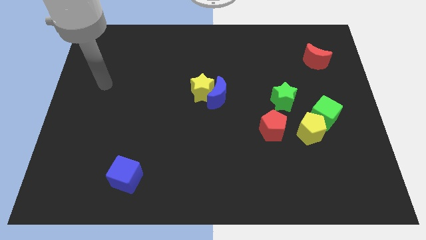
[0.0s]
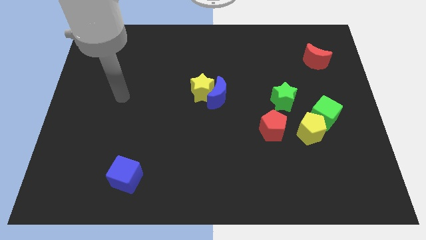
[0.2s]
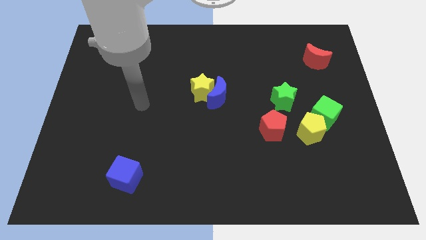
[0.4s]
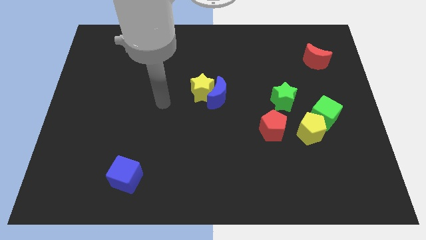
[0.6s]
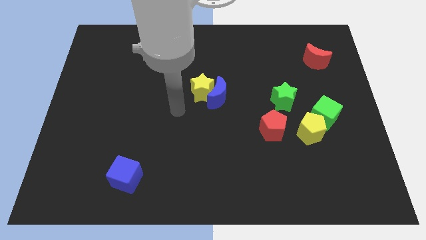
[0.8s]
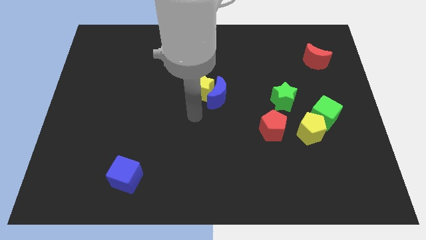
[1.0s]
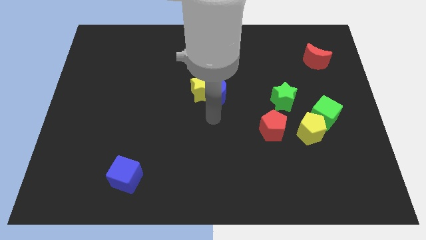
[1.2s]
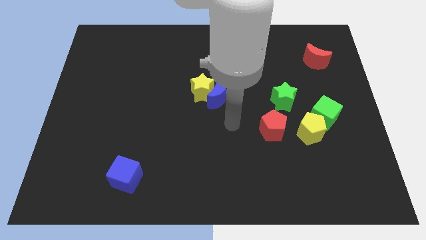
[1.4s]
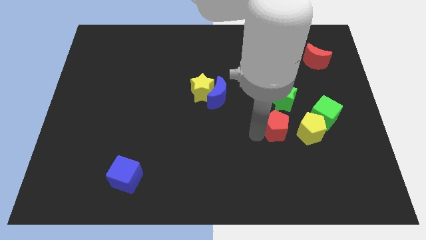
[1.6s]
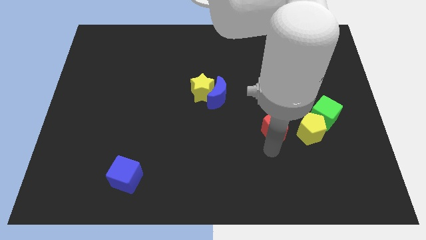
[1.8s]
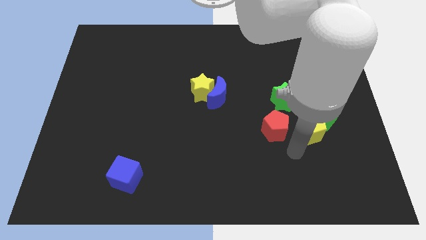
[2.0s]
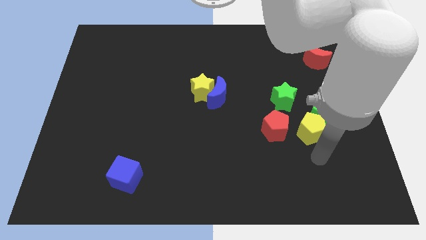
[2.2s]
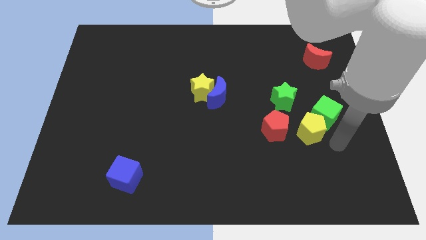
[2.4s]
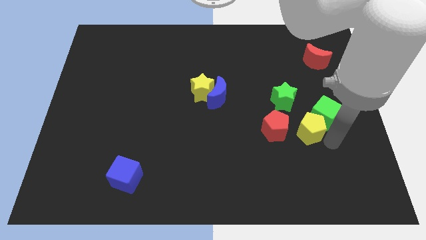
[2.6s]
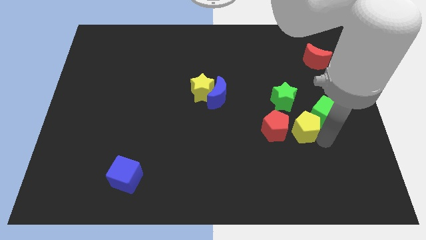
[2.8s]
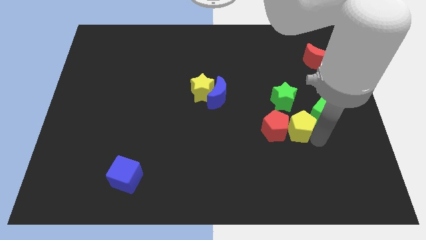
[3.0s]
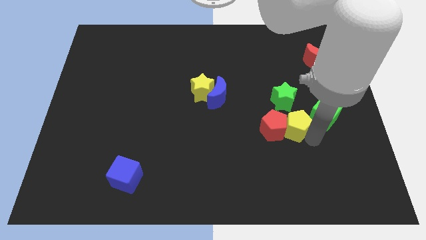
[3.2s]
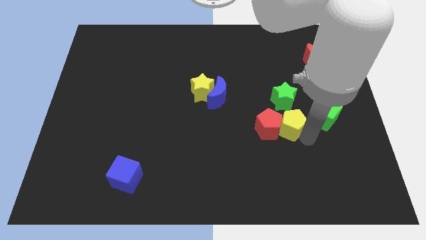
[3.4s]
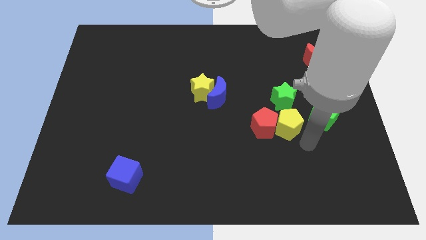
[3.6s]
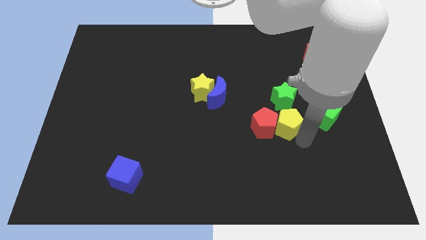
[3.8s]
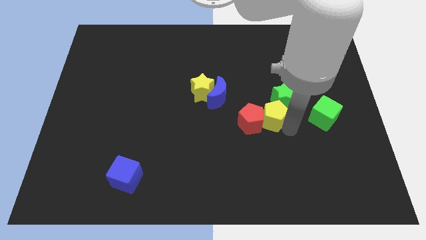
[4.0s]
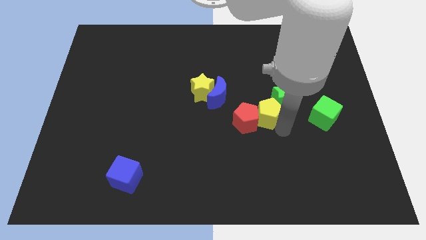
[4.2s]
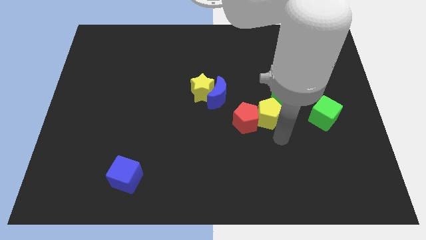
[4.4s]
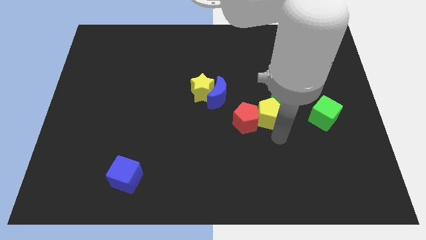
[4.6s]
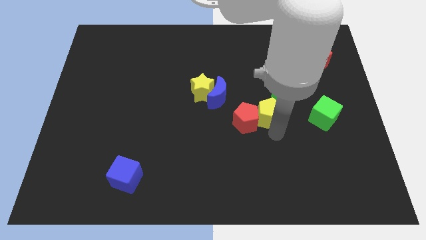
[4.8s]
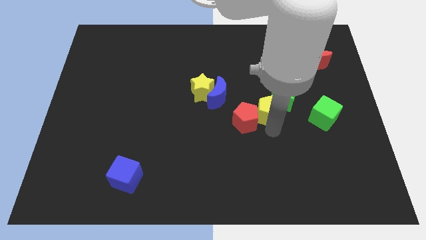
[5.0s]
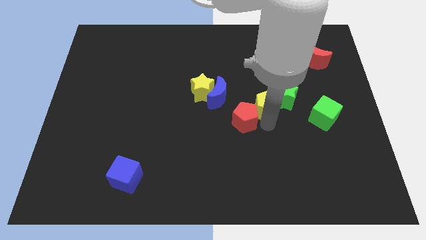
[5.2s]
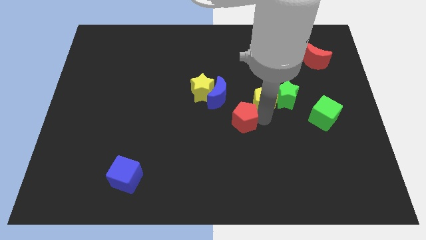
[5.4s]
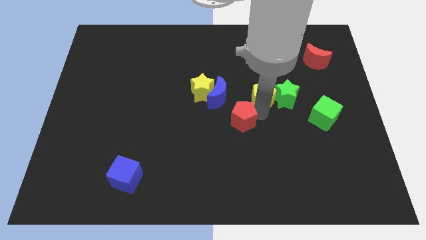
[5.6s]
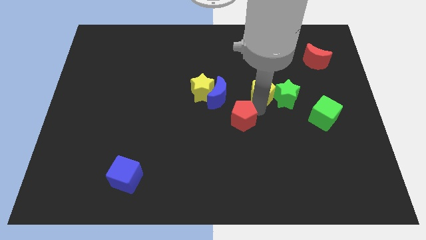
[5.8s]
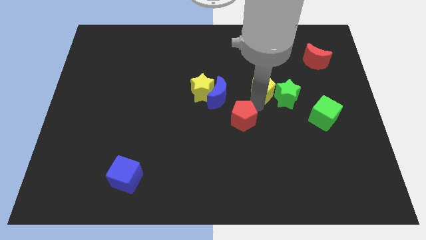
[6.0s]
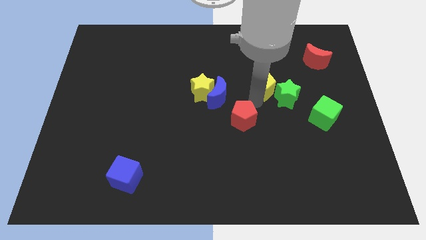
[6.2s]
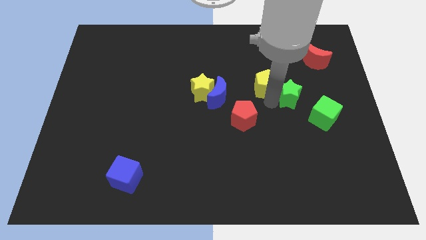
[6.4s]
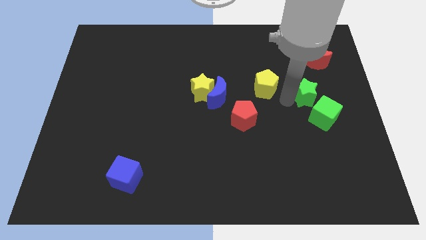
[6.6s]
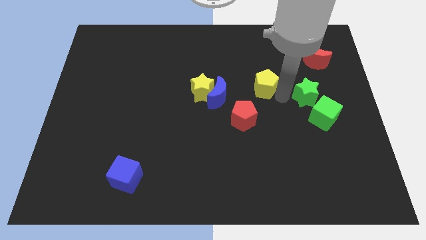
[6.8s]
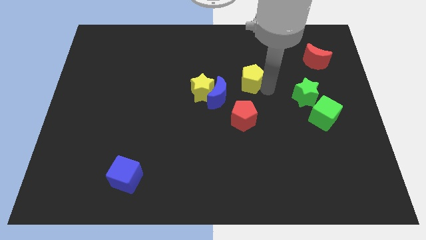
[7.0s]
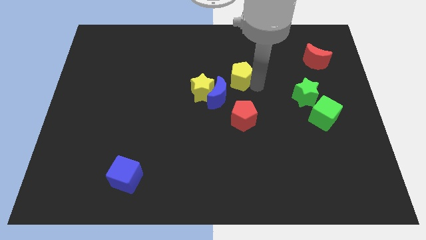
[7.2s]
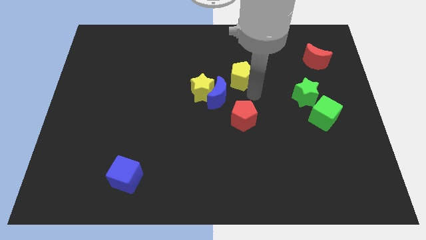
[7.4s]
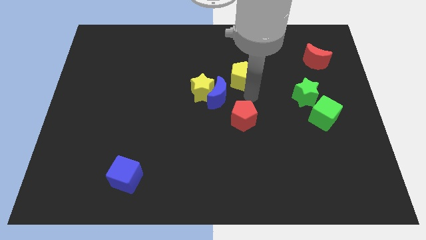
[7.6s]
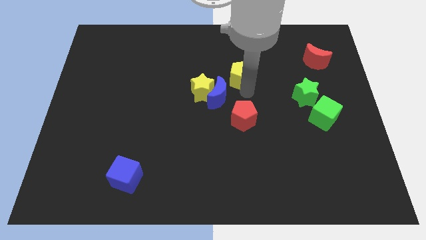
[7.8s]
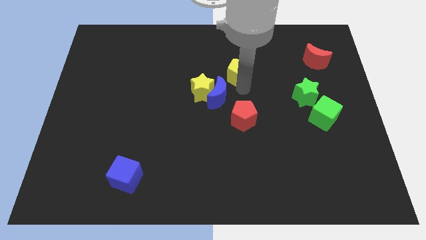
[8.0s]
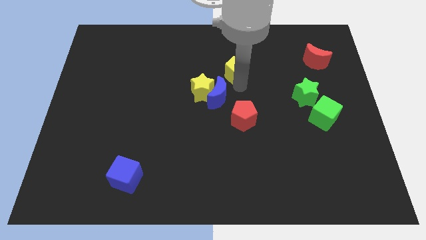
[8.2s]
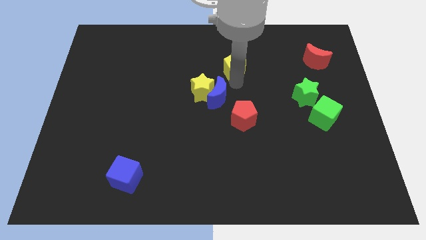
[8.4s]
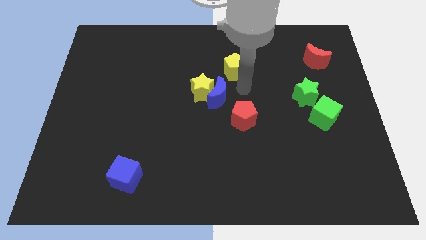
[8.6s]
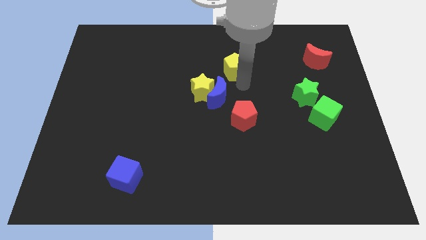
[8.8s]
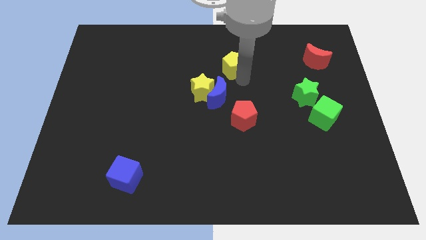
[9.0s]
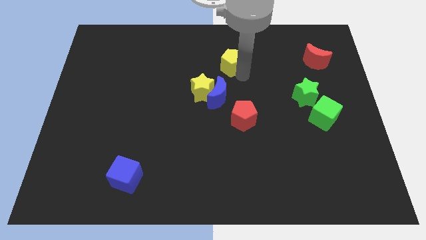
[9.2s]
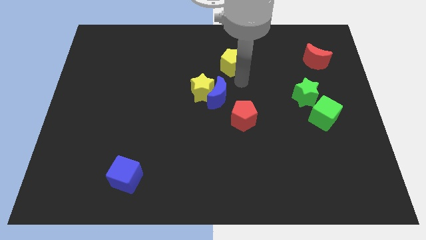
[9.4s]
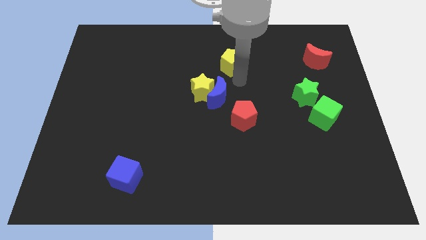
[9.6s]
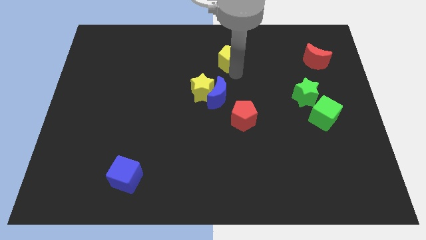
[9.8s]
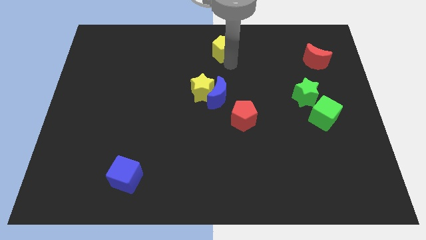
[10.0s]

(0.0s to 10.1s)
slide the yellow pentagon to the towards your base

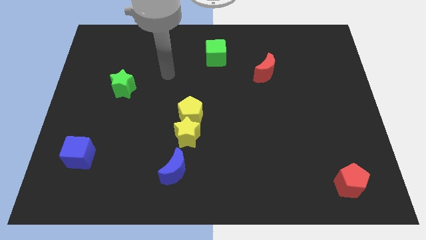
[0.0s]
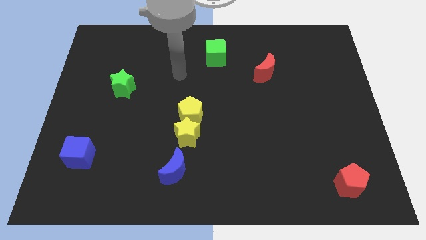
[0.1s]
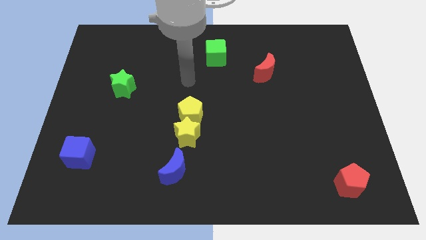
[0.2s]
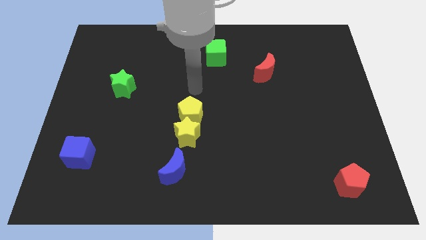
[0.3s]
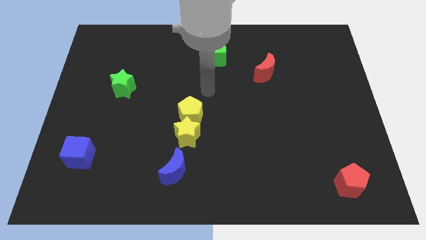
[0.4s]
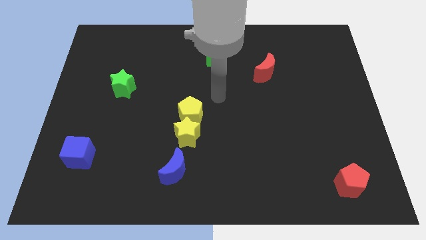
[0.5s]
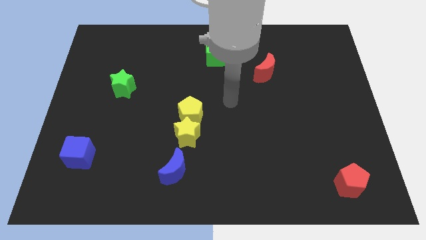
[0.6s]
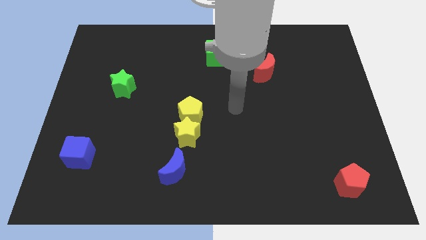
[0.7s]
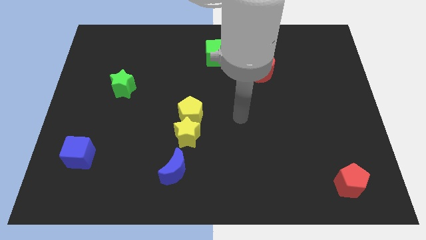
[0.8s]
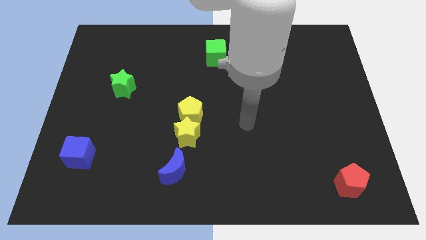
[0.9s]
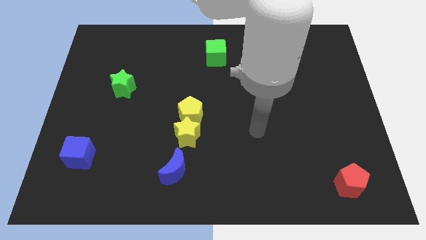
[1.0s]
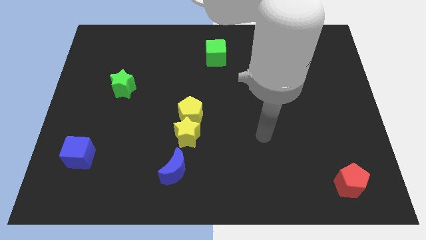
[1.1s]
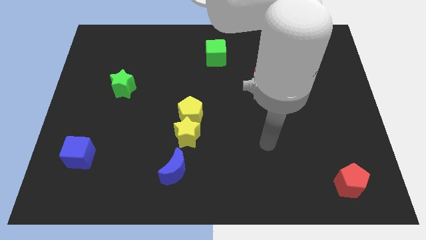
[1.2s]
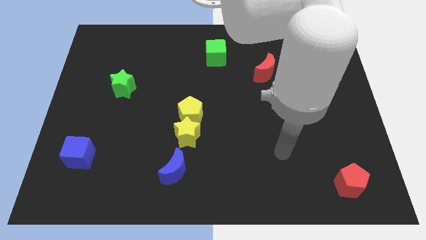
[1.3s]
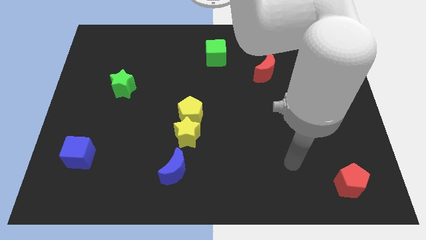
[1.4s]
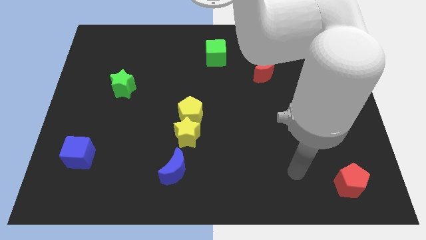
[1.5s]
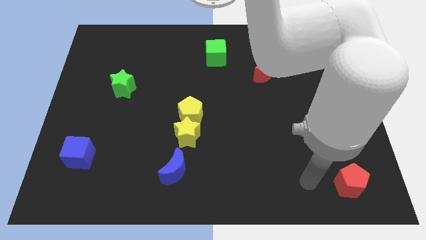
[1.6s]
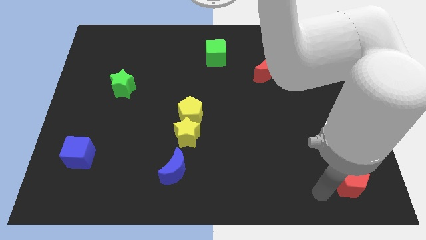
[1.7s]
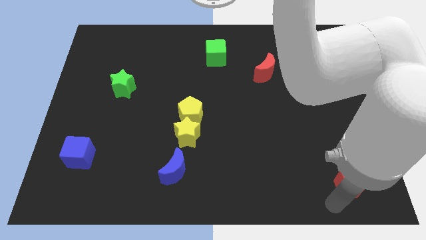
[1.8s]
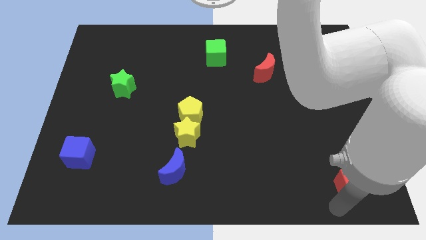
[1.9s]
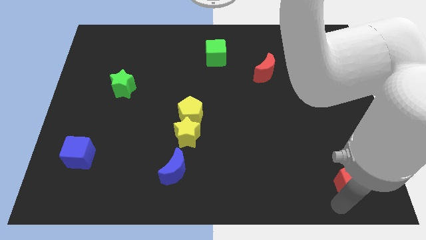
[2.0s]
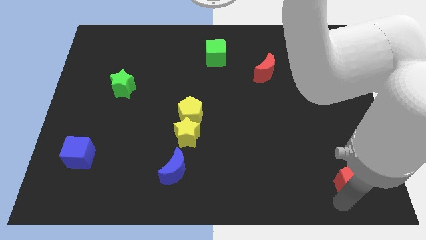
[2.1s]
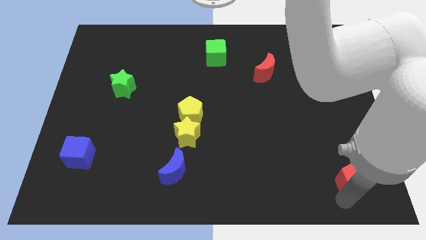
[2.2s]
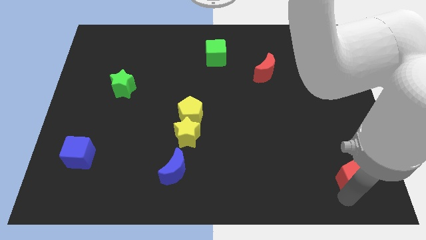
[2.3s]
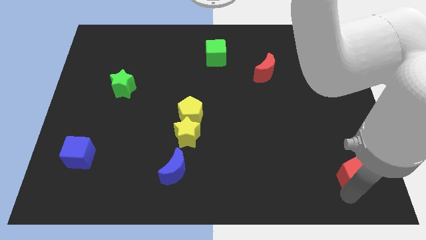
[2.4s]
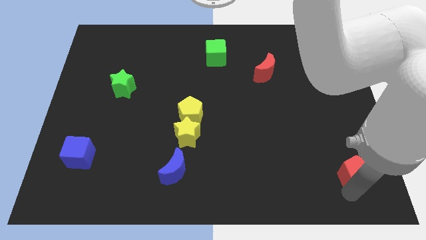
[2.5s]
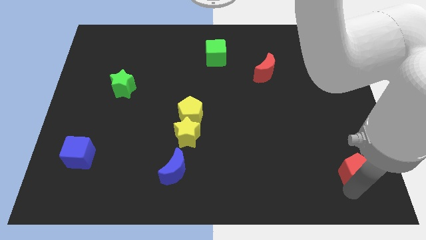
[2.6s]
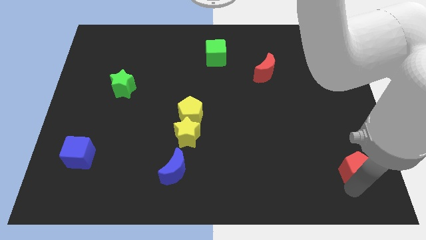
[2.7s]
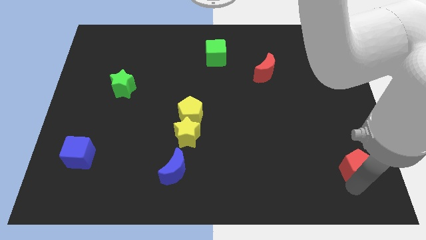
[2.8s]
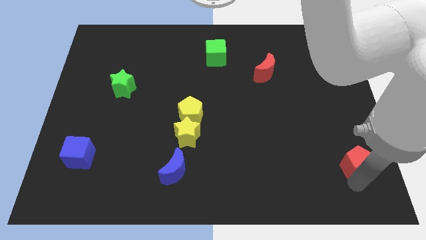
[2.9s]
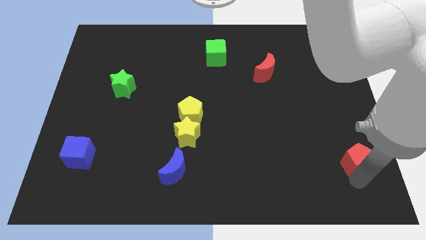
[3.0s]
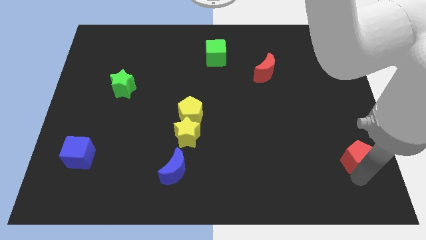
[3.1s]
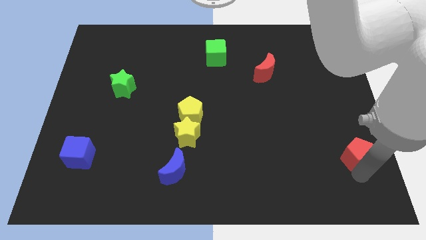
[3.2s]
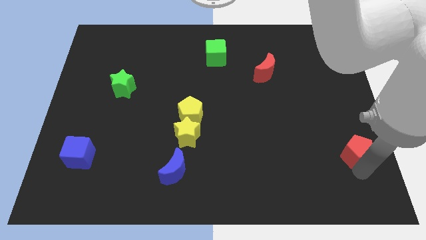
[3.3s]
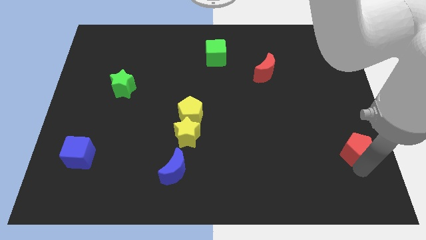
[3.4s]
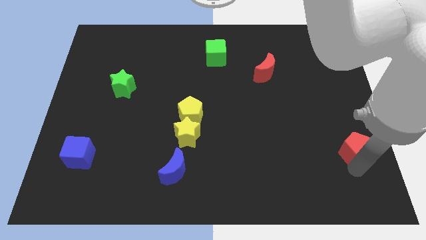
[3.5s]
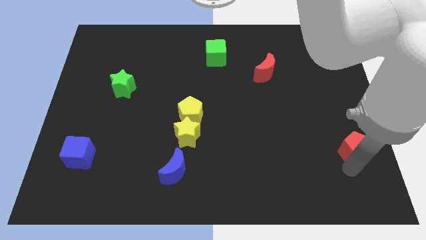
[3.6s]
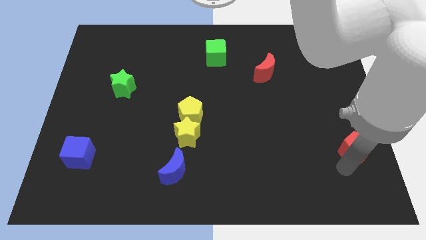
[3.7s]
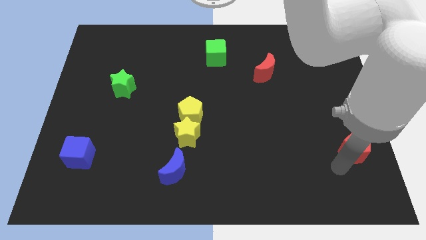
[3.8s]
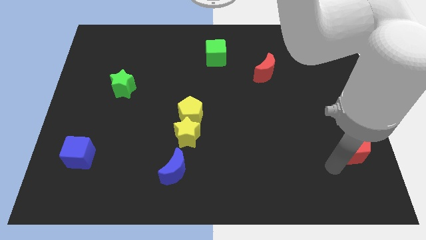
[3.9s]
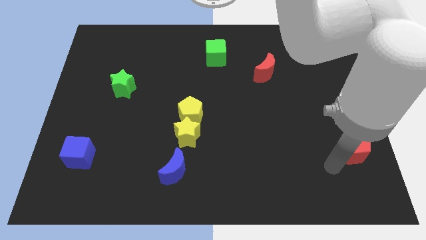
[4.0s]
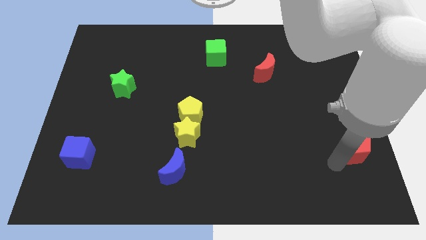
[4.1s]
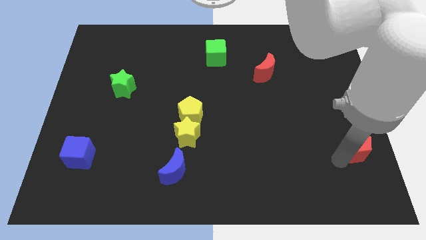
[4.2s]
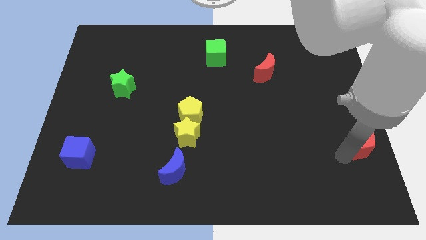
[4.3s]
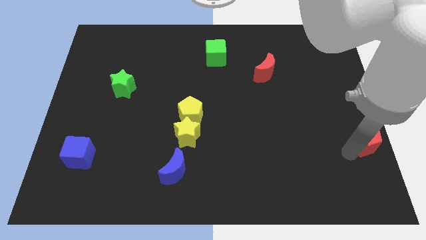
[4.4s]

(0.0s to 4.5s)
push the red pentagon to the right side of the board
